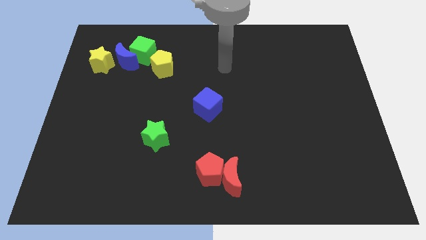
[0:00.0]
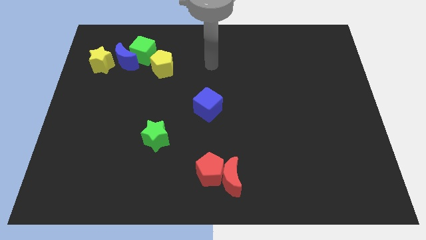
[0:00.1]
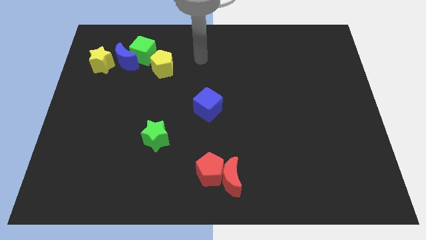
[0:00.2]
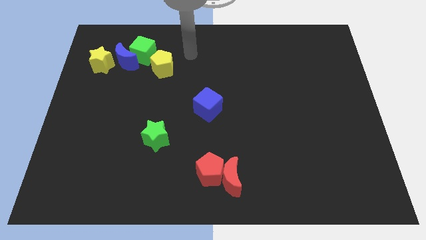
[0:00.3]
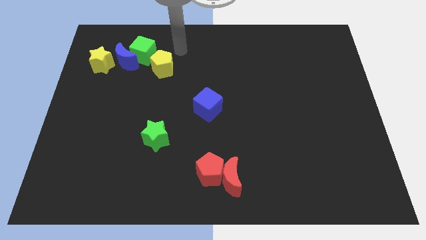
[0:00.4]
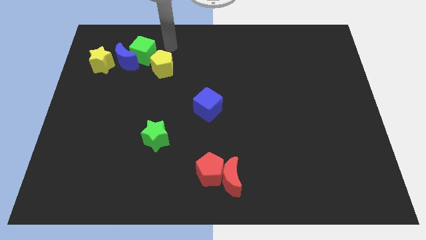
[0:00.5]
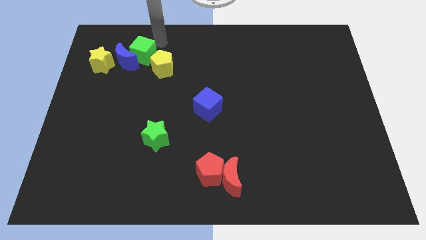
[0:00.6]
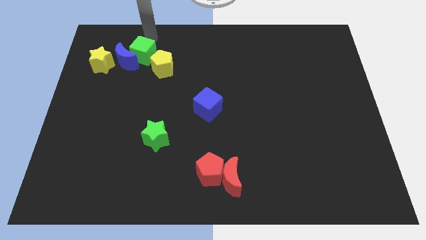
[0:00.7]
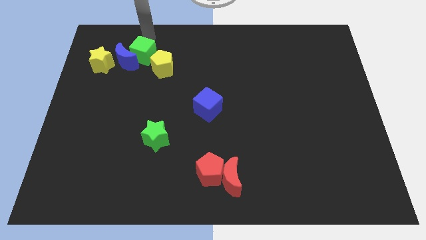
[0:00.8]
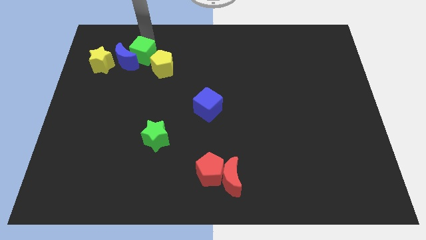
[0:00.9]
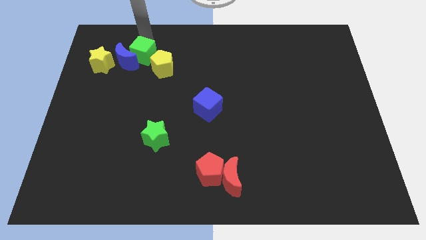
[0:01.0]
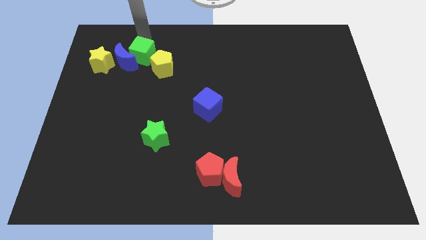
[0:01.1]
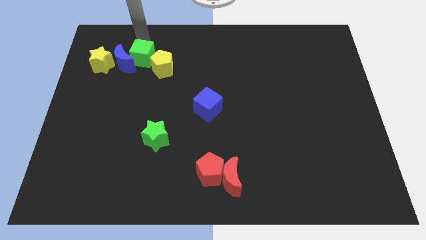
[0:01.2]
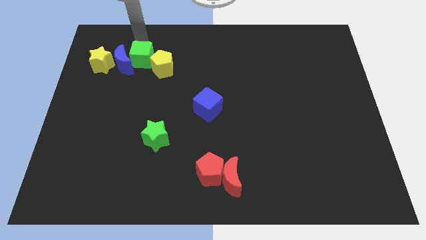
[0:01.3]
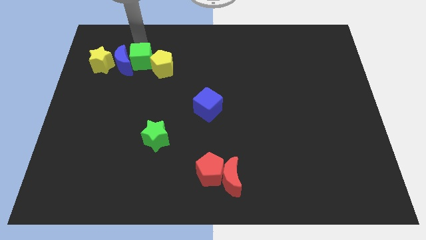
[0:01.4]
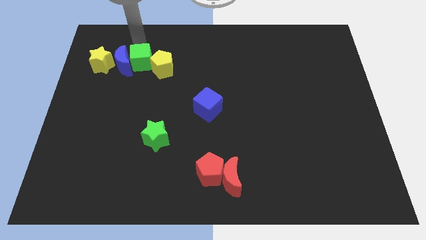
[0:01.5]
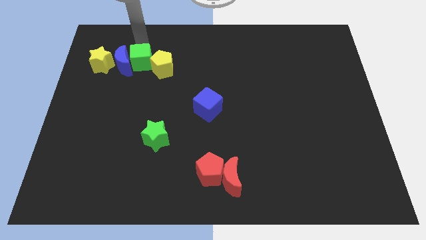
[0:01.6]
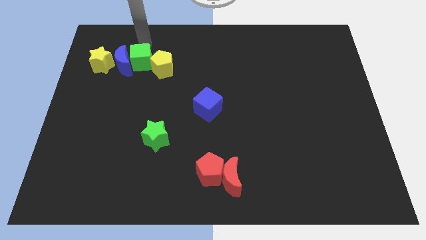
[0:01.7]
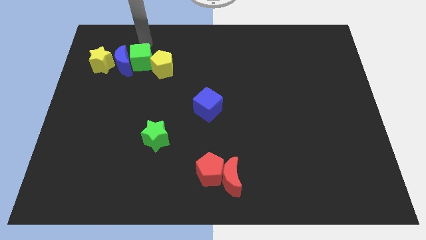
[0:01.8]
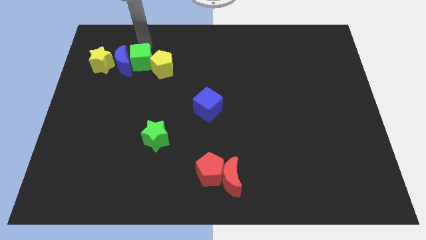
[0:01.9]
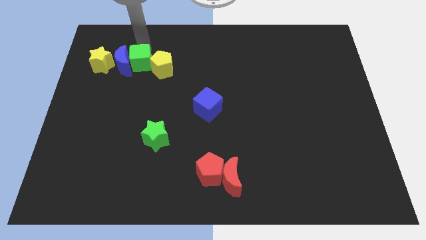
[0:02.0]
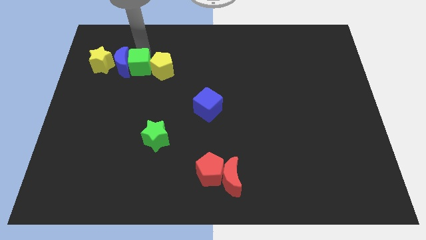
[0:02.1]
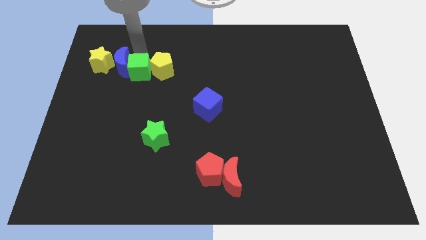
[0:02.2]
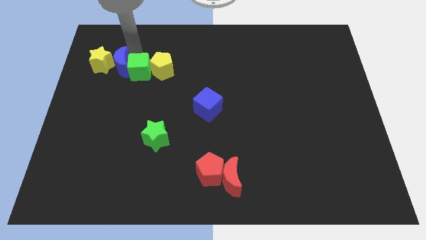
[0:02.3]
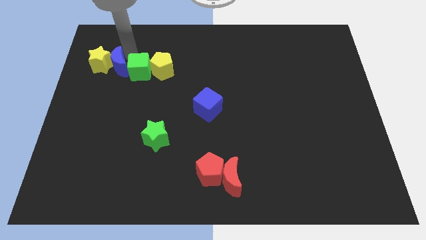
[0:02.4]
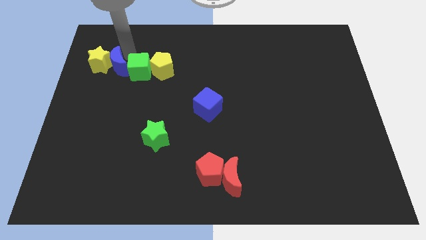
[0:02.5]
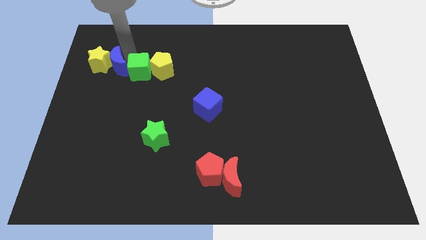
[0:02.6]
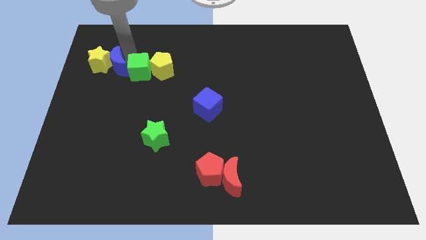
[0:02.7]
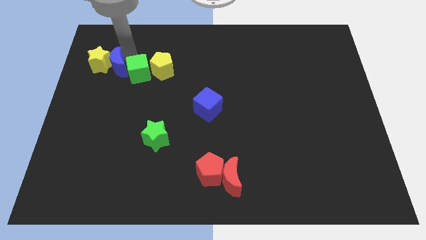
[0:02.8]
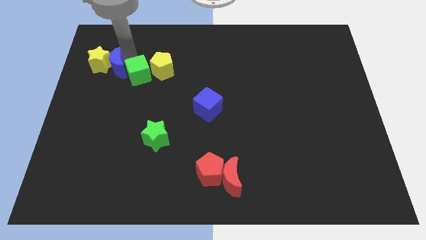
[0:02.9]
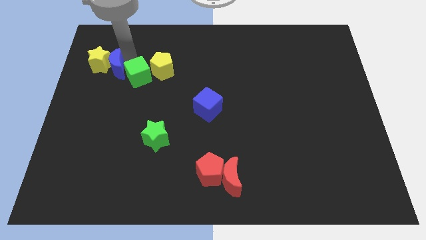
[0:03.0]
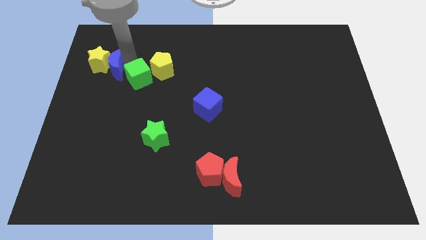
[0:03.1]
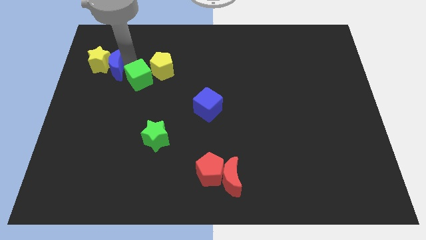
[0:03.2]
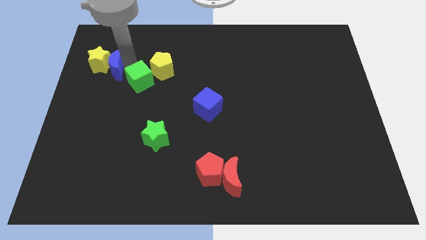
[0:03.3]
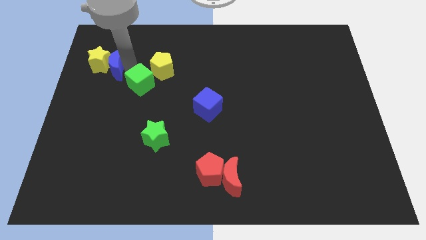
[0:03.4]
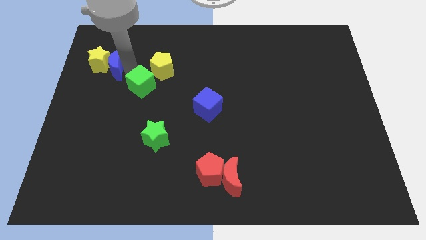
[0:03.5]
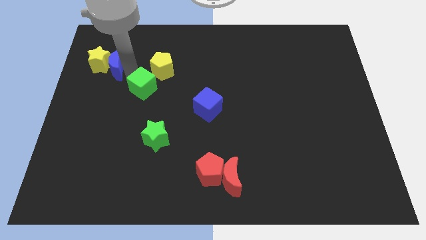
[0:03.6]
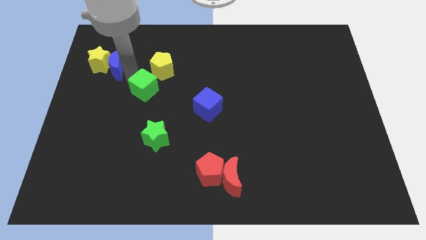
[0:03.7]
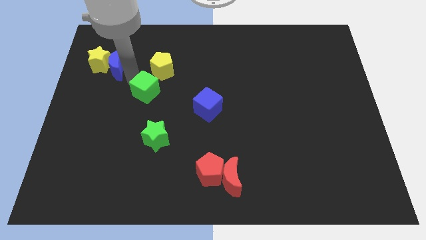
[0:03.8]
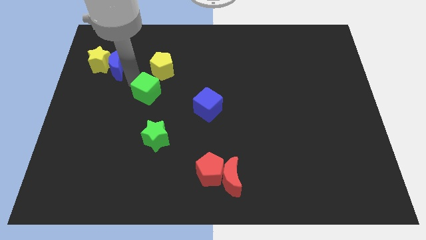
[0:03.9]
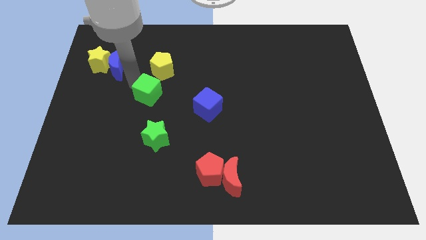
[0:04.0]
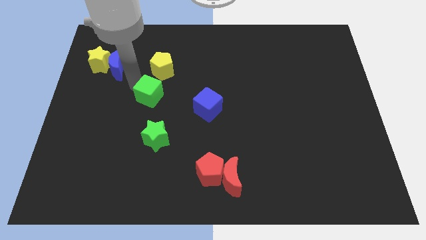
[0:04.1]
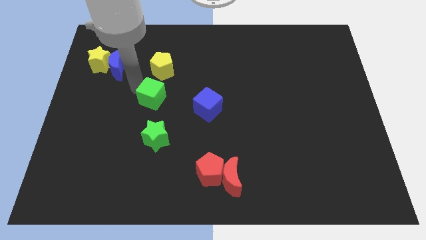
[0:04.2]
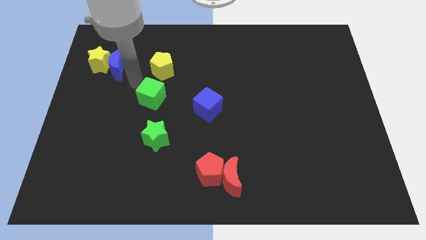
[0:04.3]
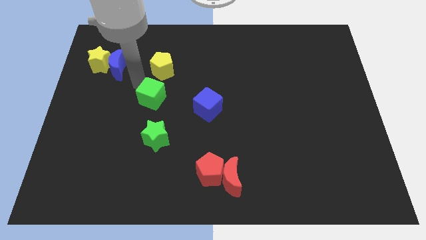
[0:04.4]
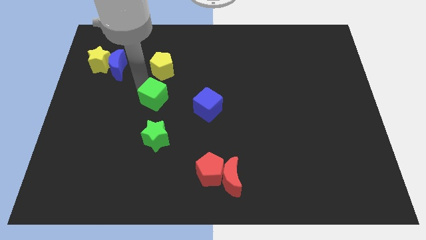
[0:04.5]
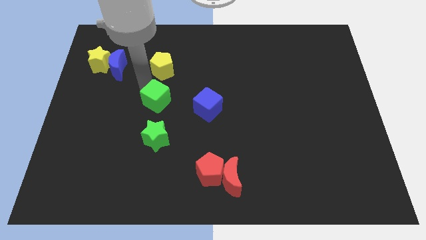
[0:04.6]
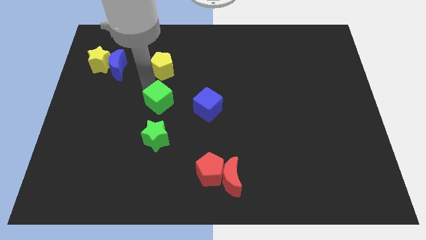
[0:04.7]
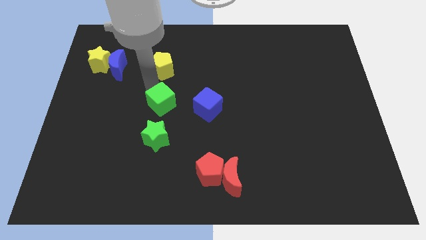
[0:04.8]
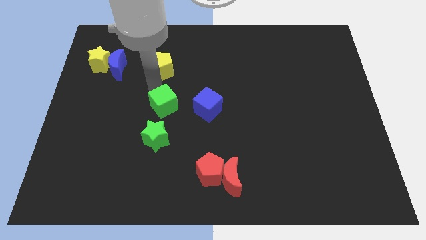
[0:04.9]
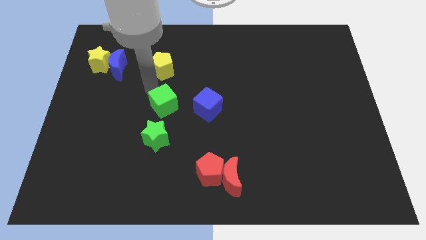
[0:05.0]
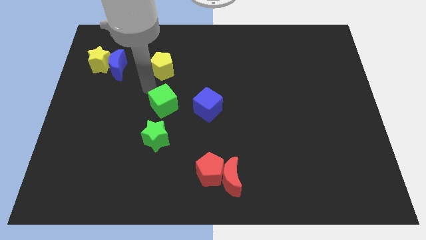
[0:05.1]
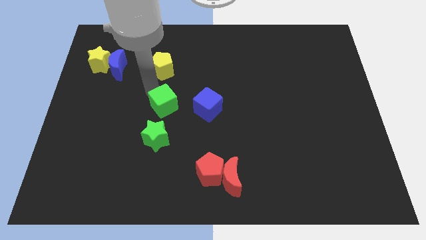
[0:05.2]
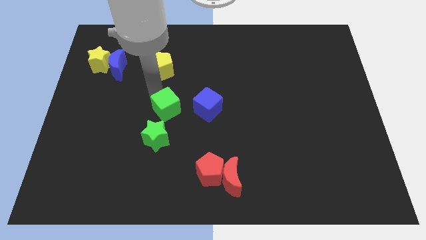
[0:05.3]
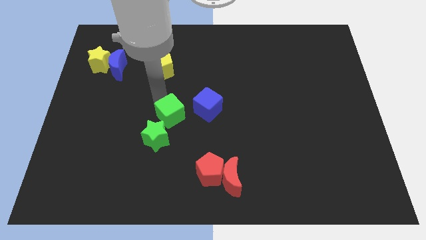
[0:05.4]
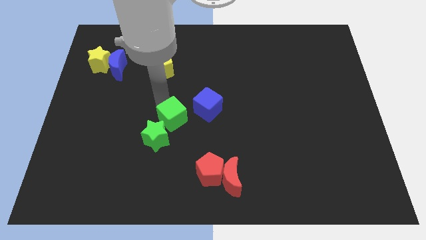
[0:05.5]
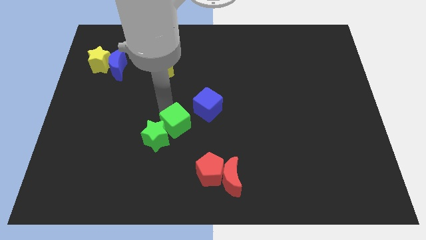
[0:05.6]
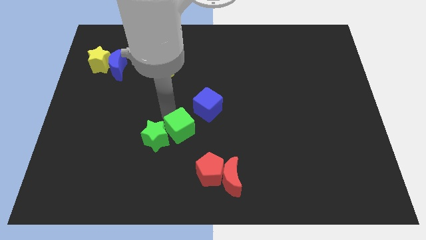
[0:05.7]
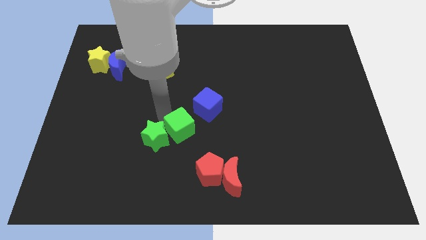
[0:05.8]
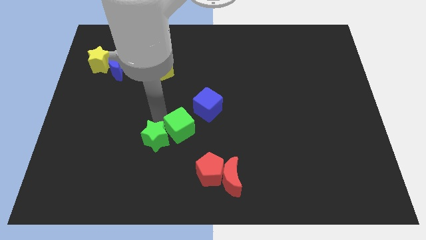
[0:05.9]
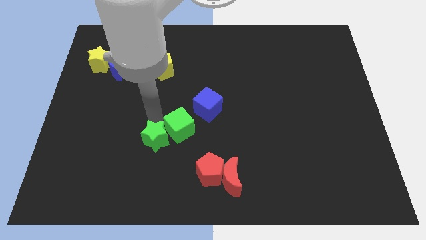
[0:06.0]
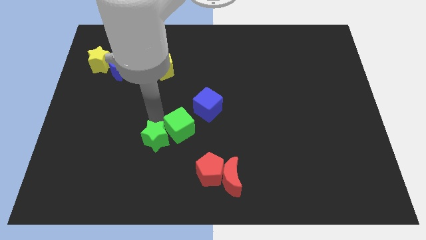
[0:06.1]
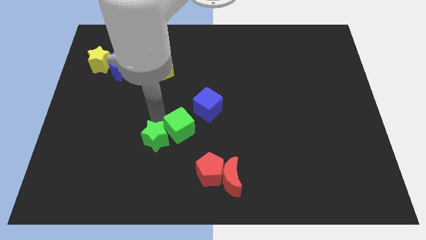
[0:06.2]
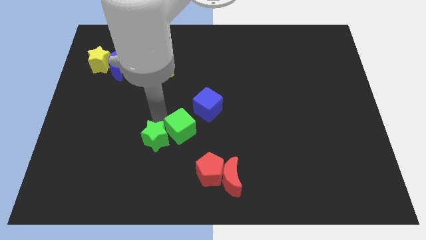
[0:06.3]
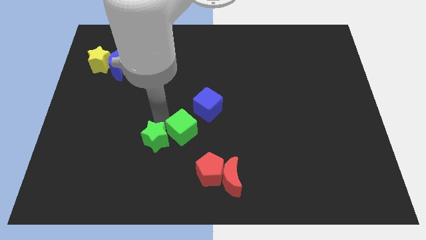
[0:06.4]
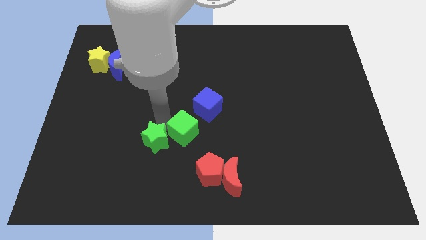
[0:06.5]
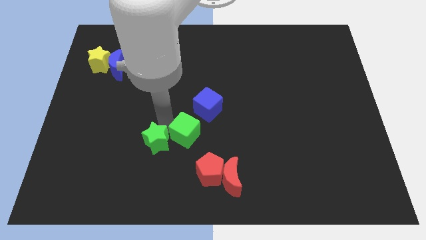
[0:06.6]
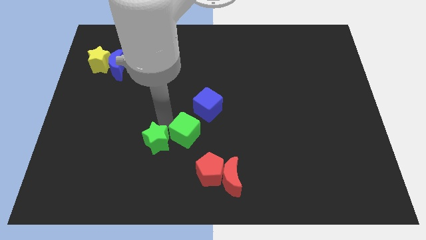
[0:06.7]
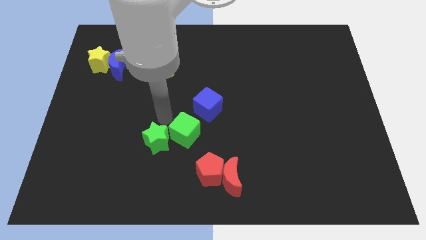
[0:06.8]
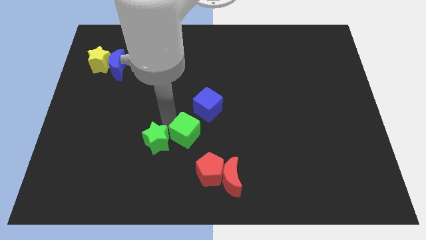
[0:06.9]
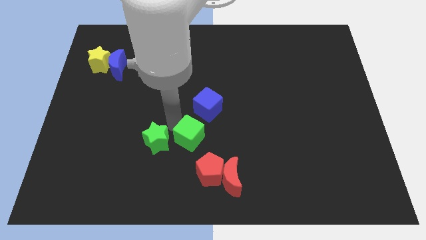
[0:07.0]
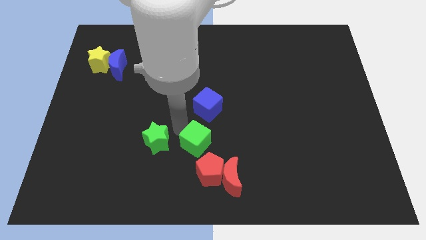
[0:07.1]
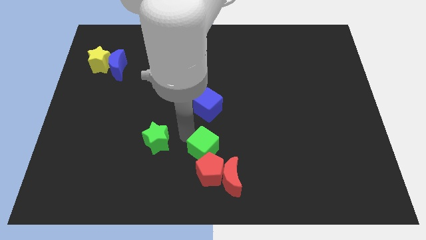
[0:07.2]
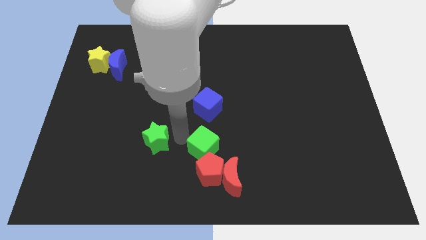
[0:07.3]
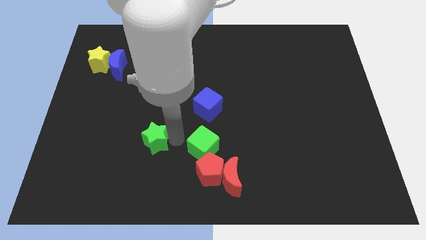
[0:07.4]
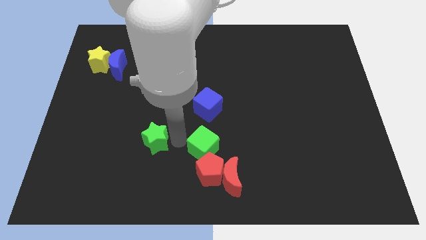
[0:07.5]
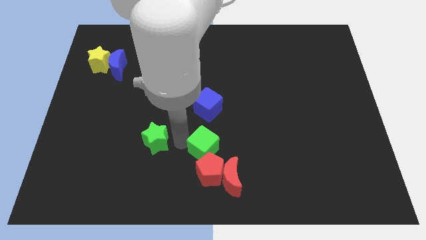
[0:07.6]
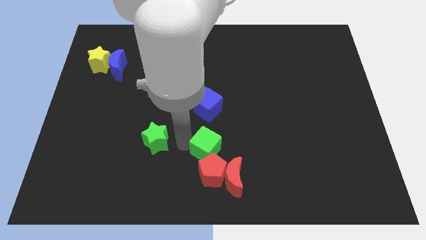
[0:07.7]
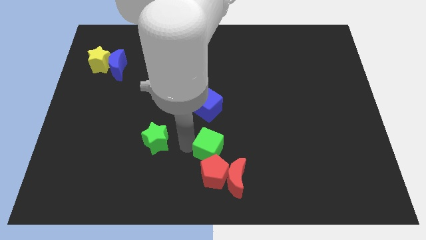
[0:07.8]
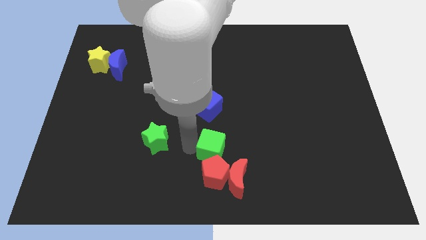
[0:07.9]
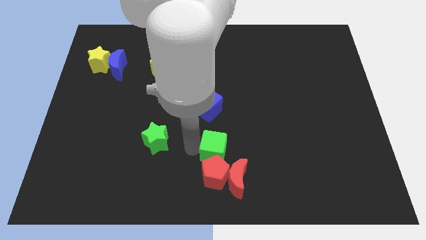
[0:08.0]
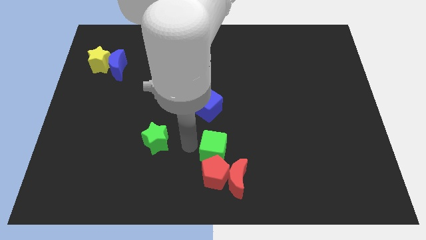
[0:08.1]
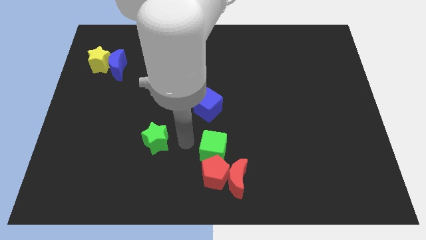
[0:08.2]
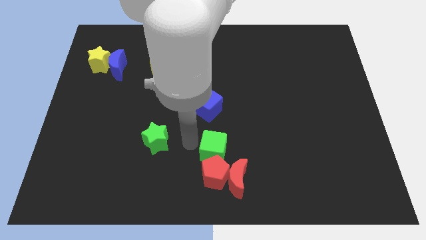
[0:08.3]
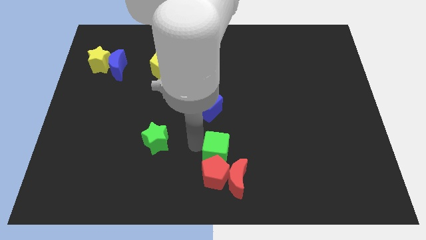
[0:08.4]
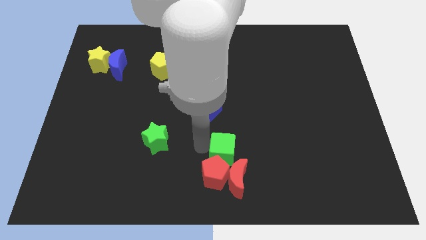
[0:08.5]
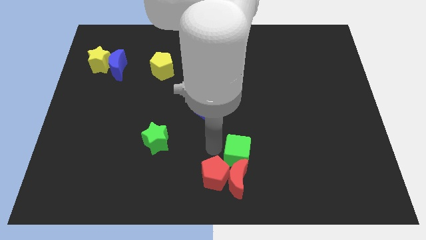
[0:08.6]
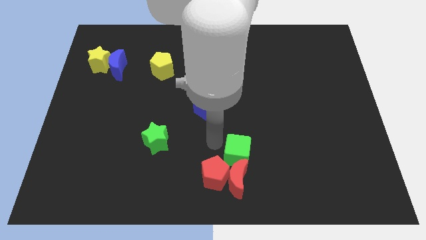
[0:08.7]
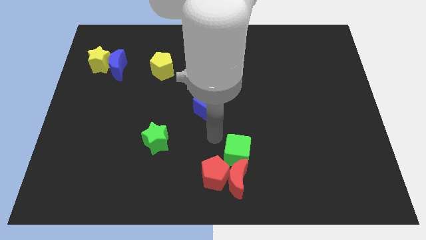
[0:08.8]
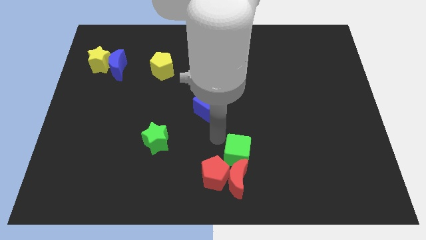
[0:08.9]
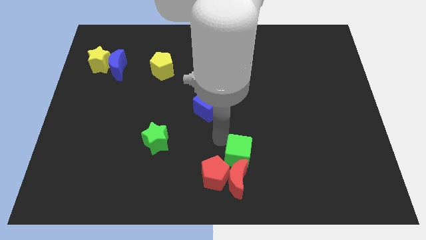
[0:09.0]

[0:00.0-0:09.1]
move the green cube to the right side of the red pentagon
